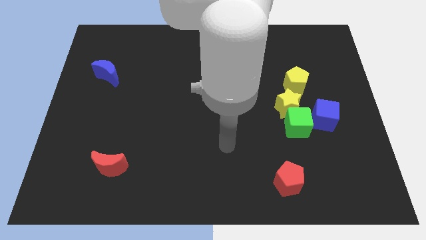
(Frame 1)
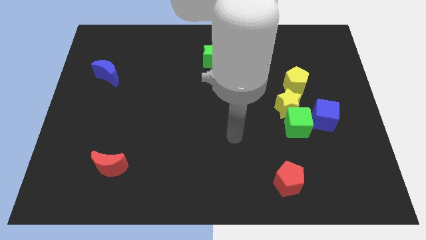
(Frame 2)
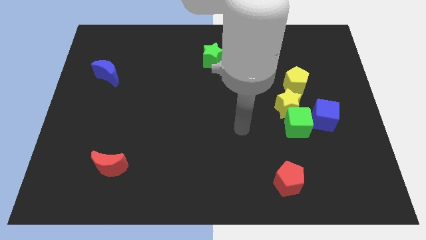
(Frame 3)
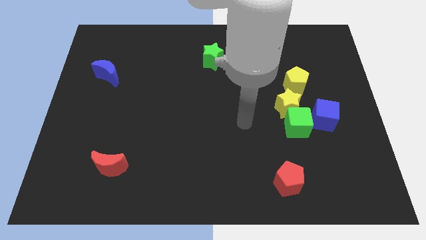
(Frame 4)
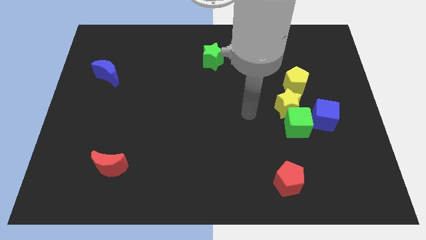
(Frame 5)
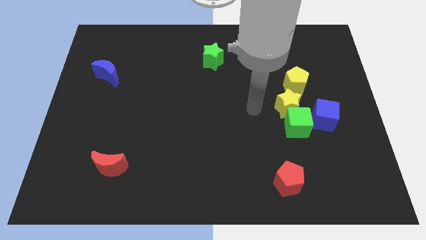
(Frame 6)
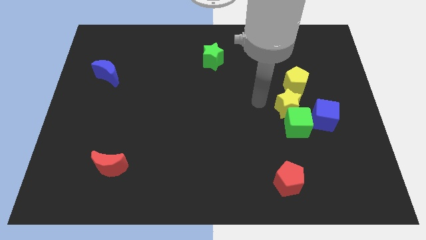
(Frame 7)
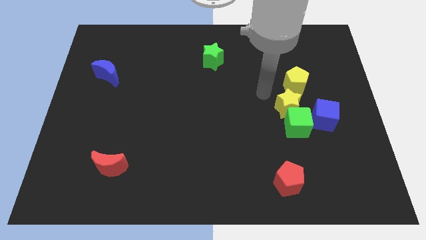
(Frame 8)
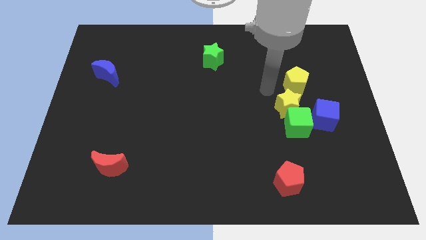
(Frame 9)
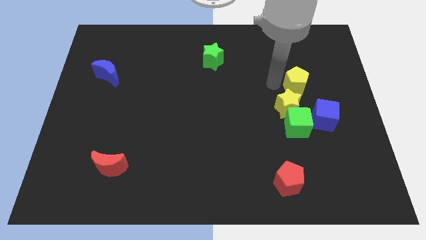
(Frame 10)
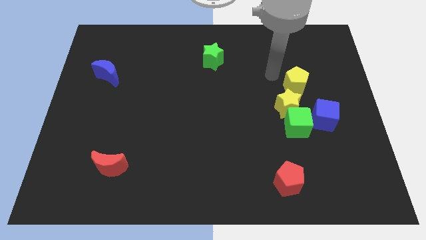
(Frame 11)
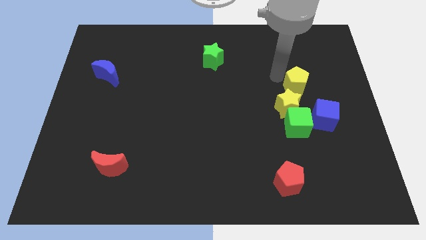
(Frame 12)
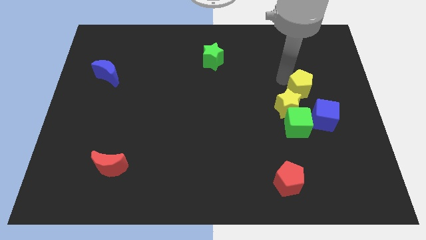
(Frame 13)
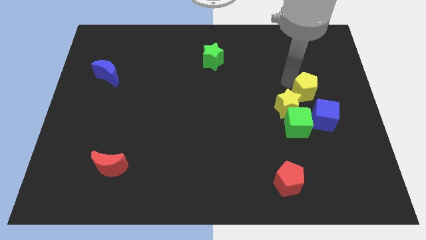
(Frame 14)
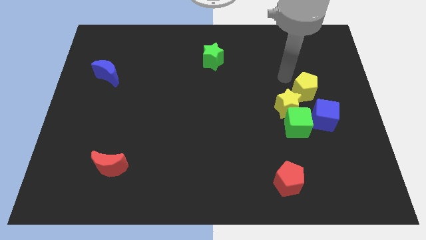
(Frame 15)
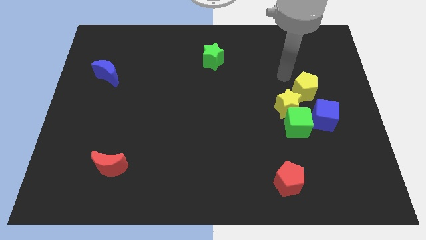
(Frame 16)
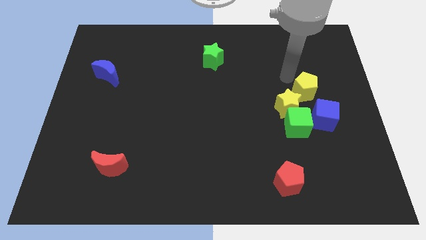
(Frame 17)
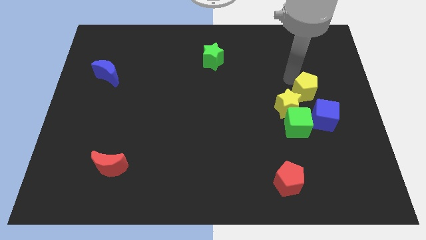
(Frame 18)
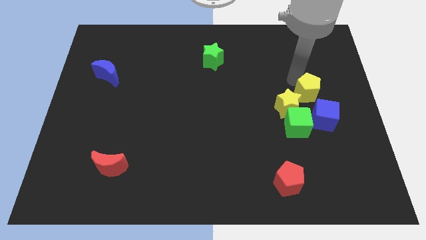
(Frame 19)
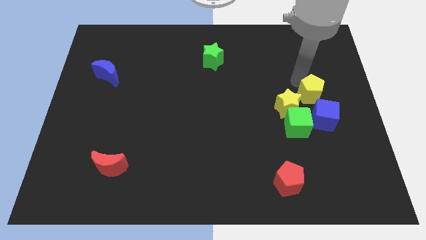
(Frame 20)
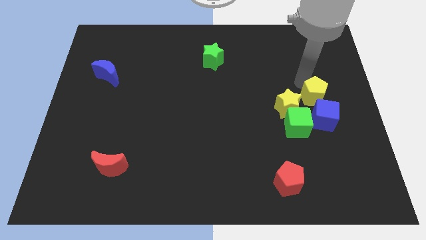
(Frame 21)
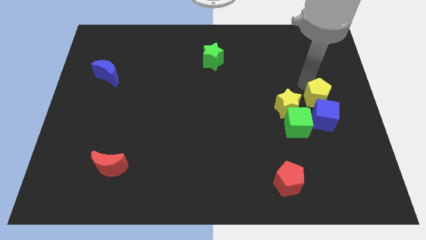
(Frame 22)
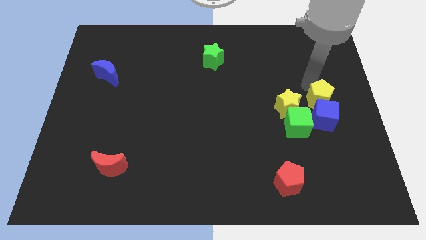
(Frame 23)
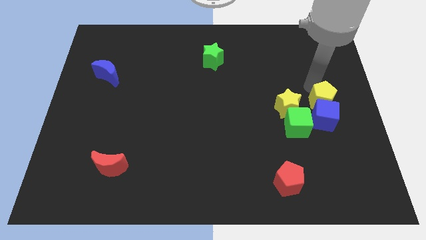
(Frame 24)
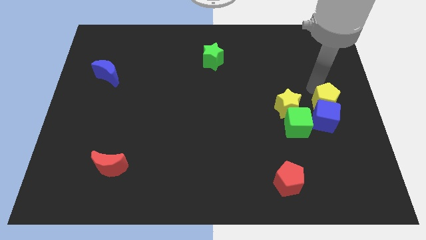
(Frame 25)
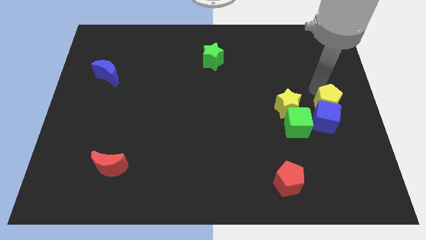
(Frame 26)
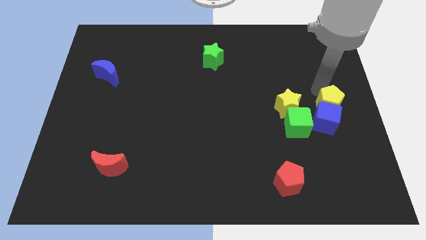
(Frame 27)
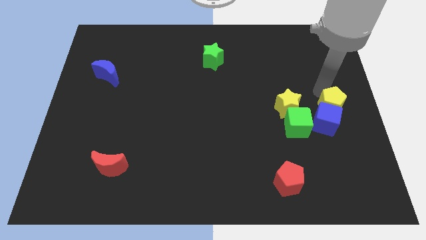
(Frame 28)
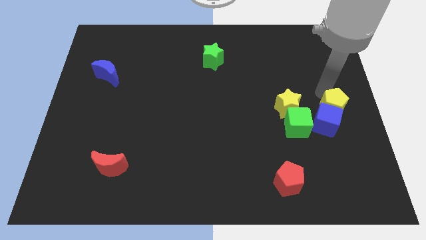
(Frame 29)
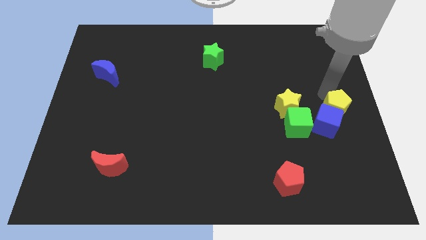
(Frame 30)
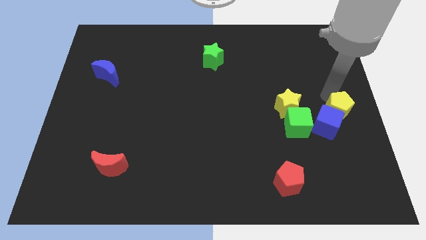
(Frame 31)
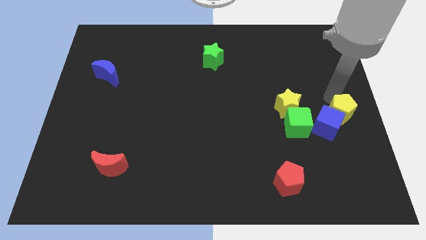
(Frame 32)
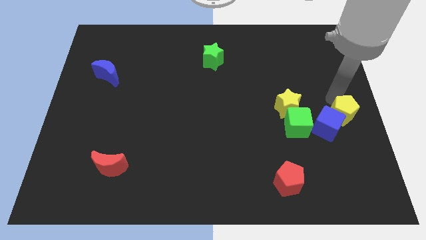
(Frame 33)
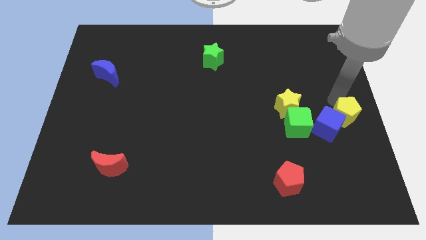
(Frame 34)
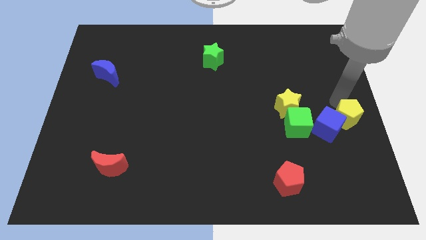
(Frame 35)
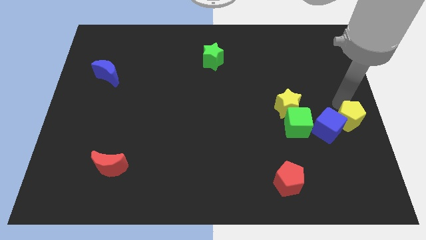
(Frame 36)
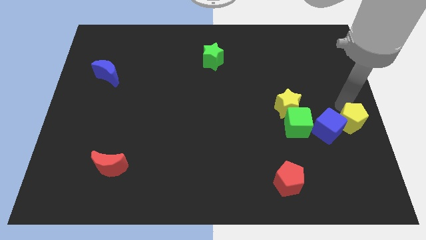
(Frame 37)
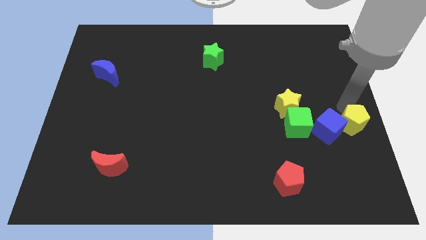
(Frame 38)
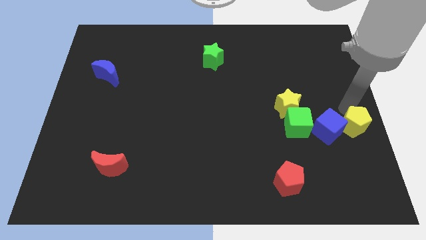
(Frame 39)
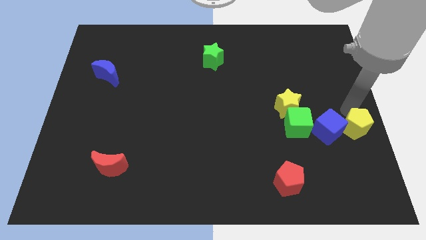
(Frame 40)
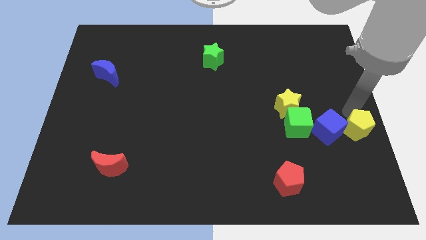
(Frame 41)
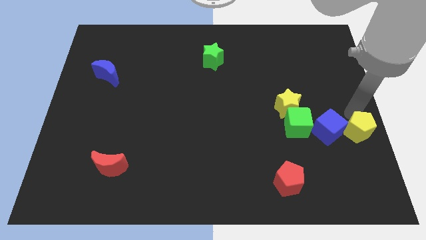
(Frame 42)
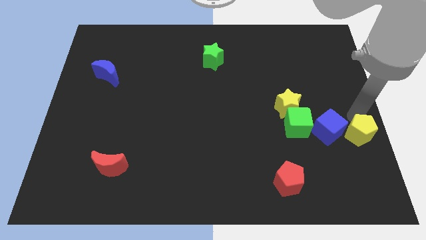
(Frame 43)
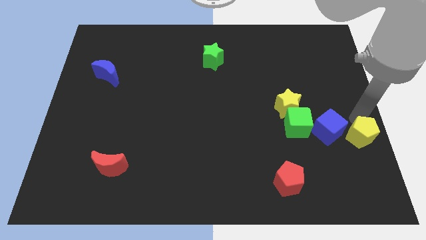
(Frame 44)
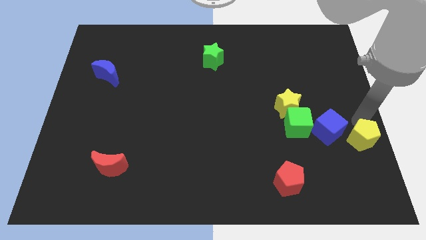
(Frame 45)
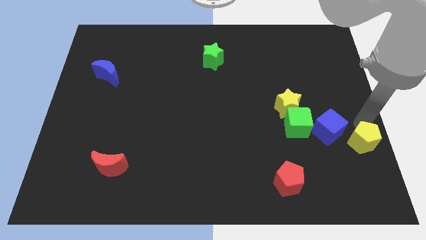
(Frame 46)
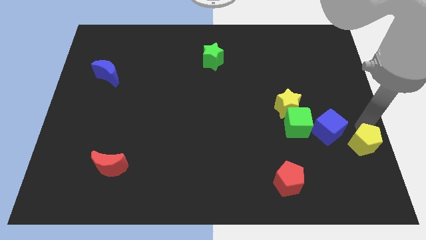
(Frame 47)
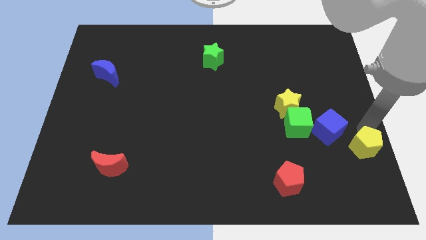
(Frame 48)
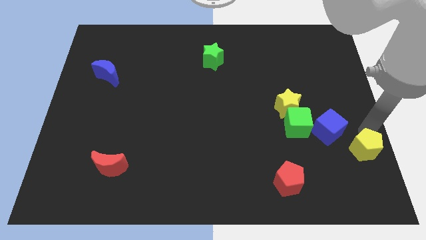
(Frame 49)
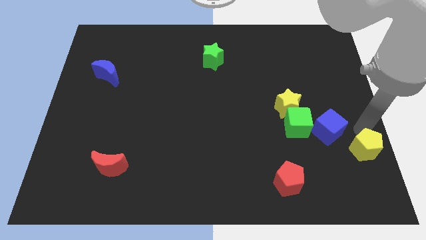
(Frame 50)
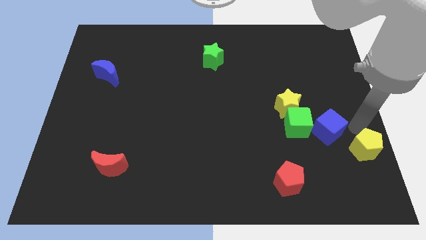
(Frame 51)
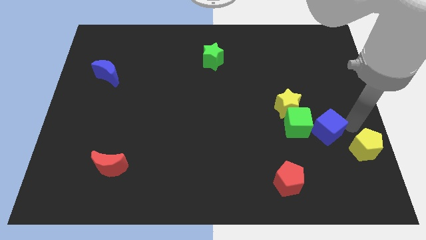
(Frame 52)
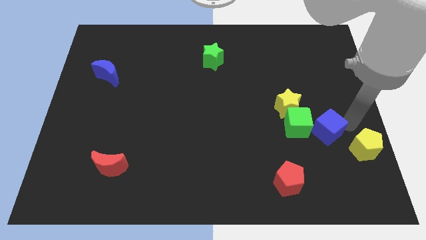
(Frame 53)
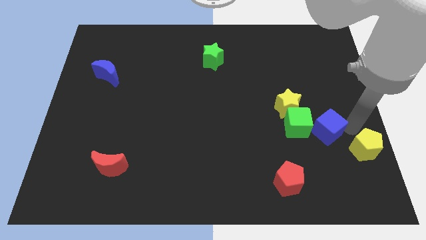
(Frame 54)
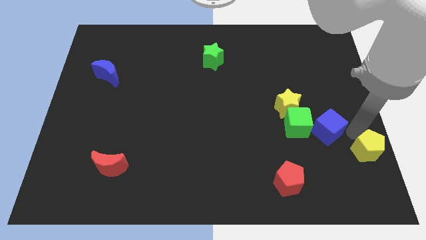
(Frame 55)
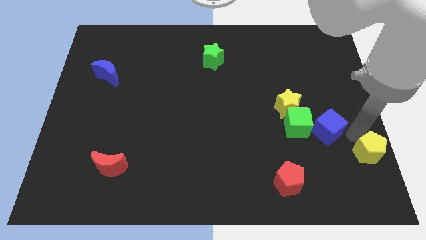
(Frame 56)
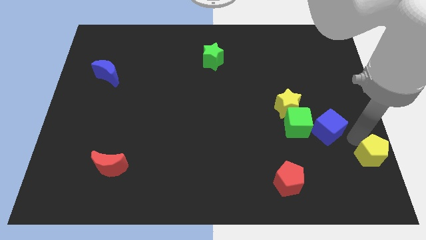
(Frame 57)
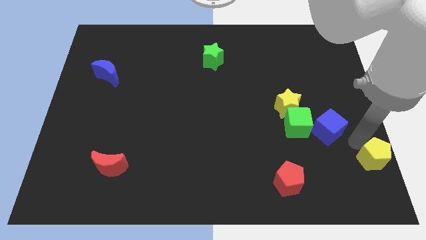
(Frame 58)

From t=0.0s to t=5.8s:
move the yellow pentagon to the bottom right corner

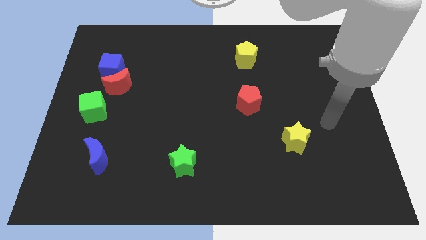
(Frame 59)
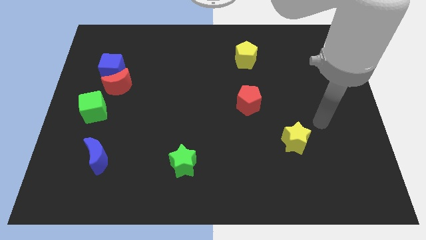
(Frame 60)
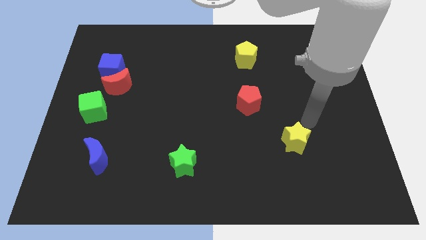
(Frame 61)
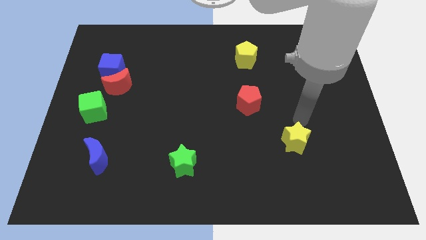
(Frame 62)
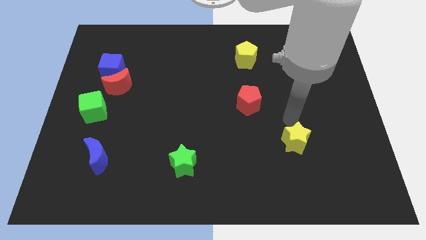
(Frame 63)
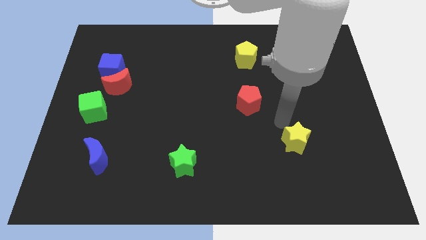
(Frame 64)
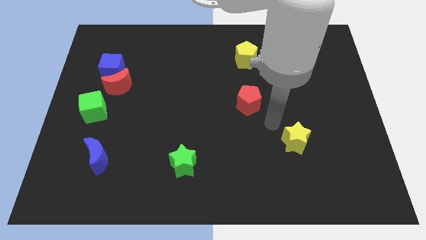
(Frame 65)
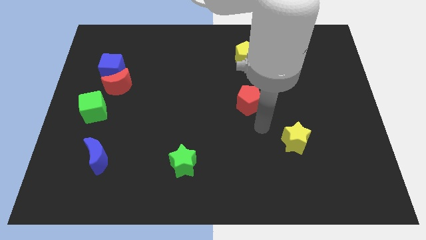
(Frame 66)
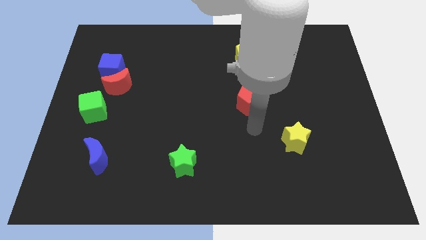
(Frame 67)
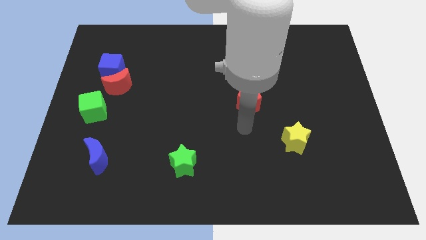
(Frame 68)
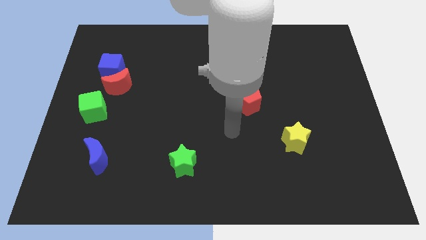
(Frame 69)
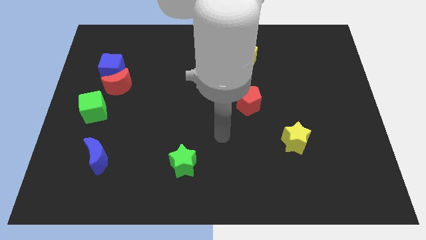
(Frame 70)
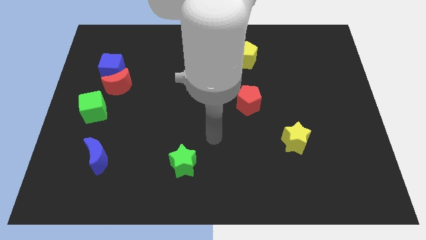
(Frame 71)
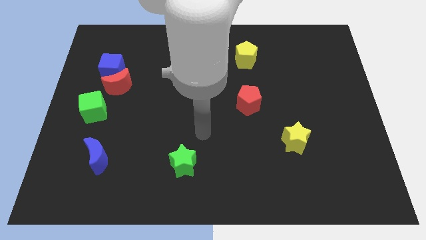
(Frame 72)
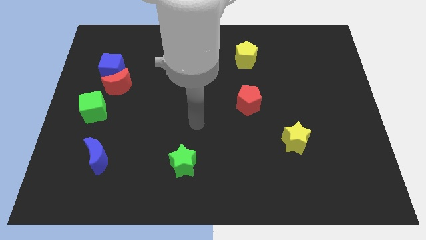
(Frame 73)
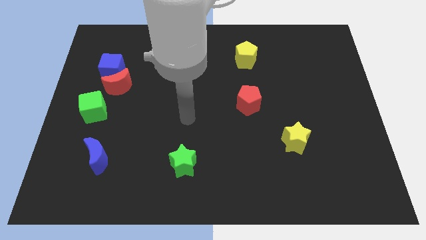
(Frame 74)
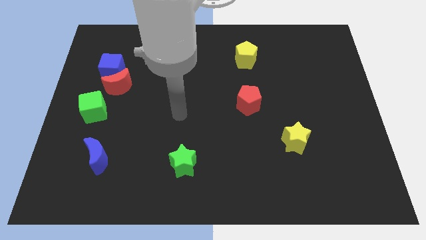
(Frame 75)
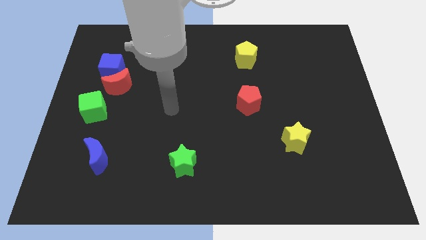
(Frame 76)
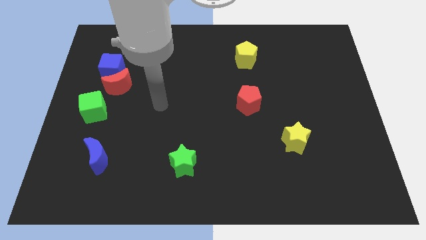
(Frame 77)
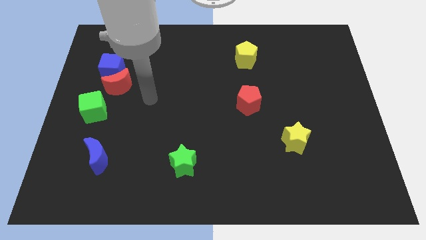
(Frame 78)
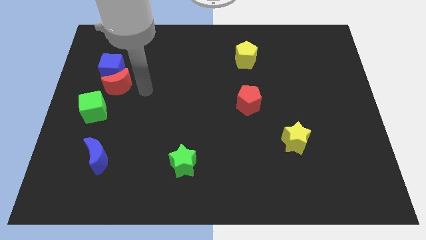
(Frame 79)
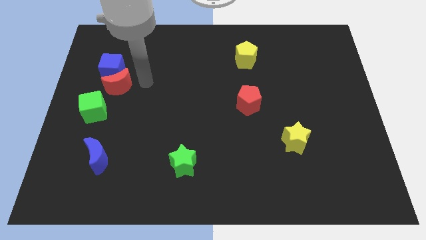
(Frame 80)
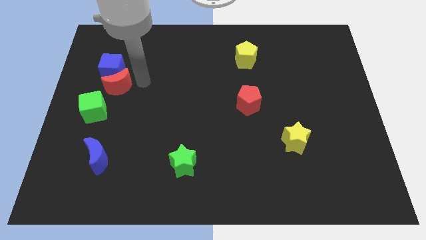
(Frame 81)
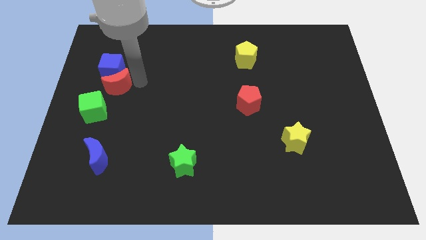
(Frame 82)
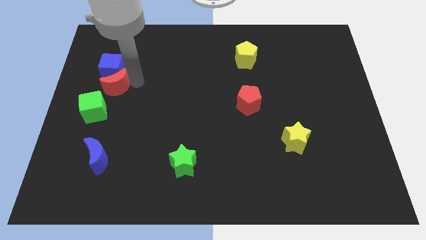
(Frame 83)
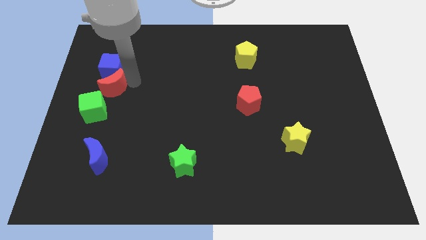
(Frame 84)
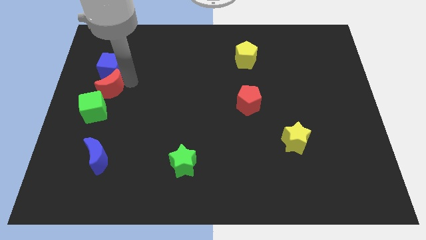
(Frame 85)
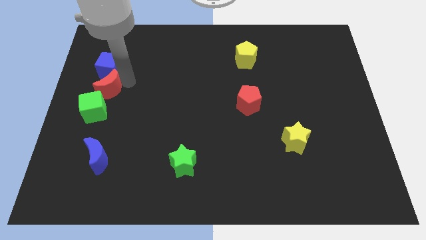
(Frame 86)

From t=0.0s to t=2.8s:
move the red moon to the left side
